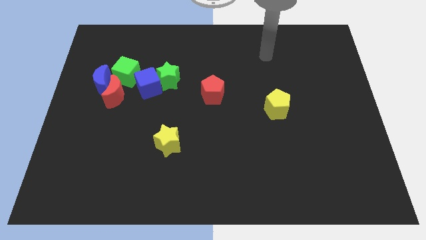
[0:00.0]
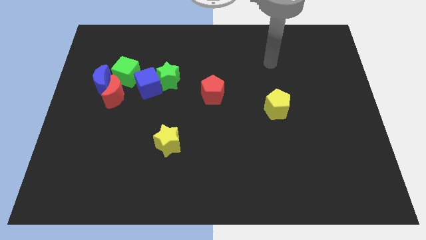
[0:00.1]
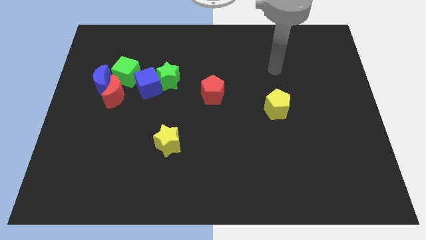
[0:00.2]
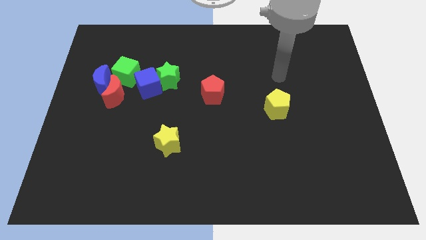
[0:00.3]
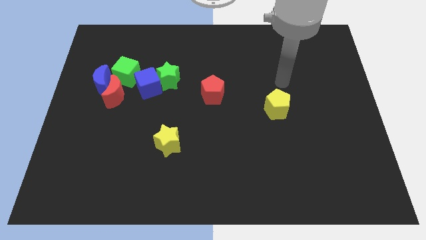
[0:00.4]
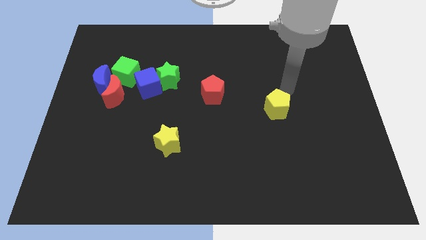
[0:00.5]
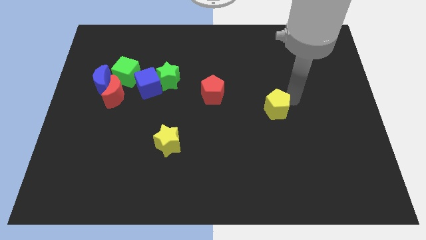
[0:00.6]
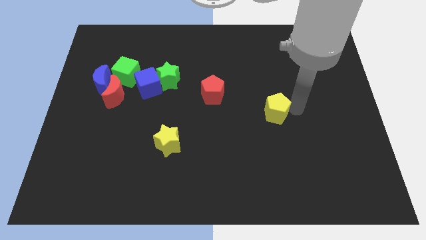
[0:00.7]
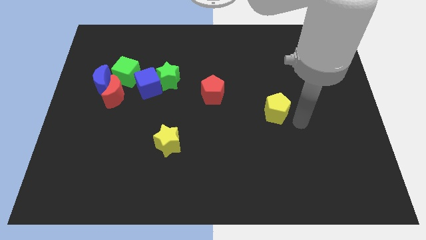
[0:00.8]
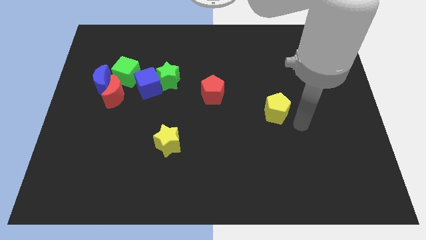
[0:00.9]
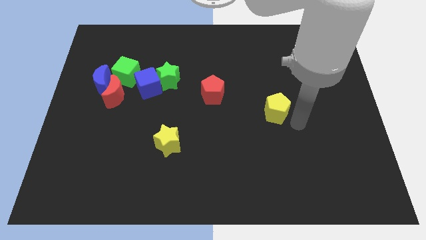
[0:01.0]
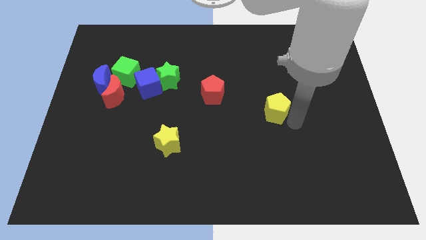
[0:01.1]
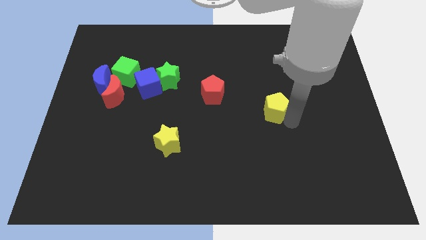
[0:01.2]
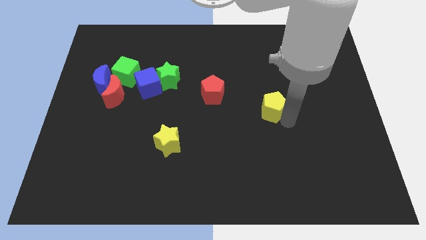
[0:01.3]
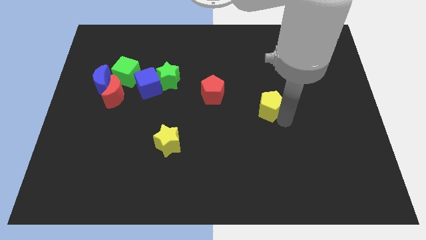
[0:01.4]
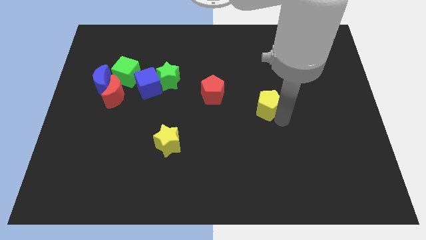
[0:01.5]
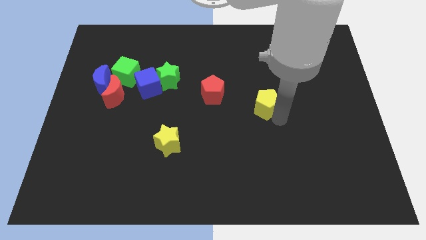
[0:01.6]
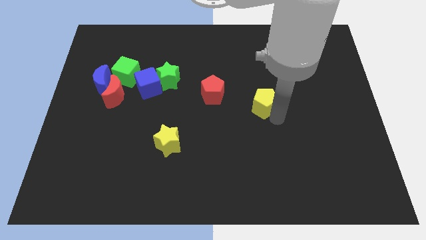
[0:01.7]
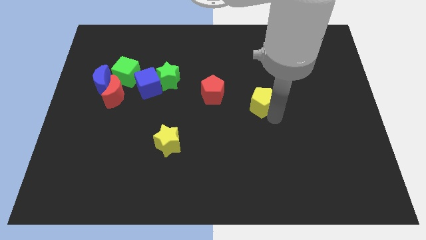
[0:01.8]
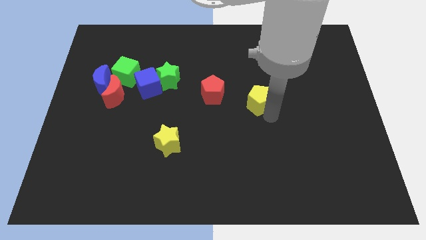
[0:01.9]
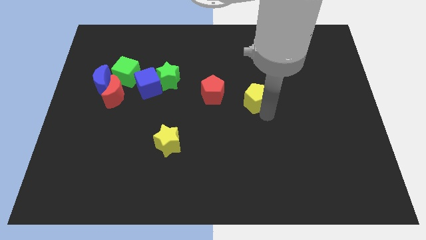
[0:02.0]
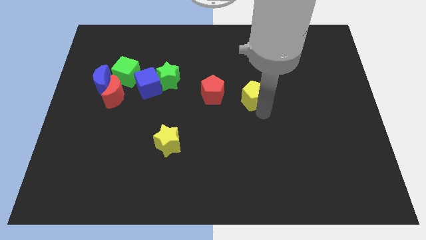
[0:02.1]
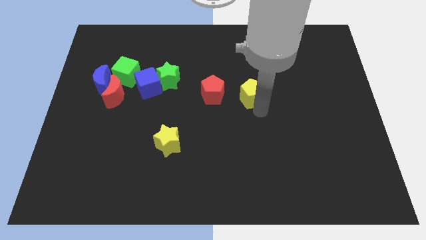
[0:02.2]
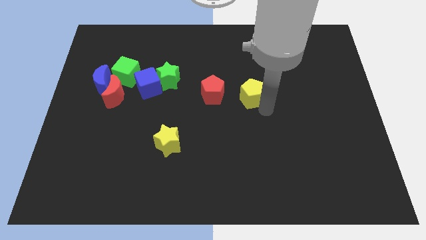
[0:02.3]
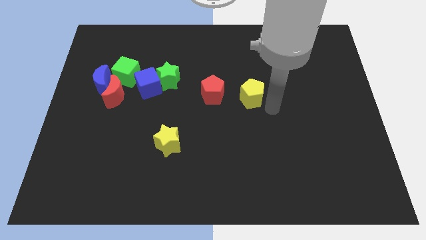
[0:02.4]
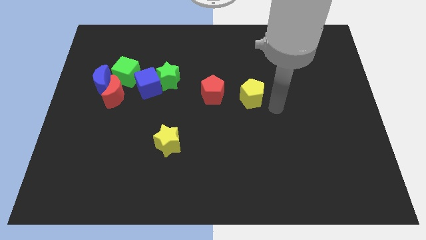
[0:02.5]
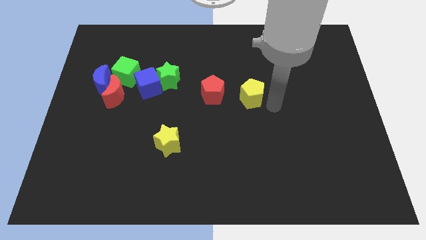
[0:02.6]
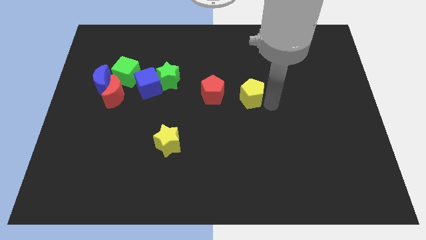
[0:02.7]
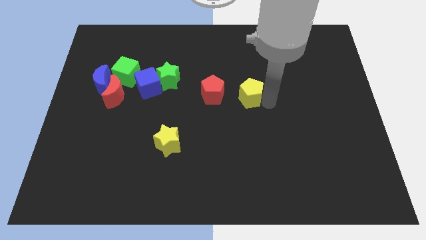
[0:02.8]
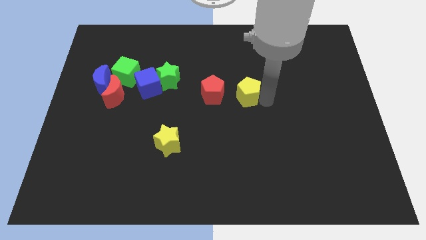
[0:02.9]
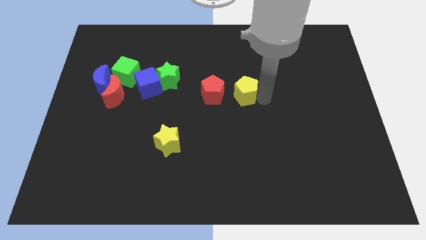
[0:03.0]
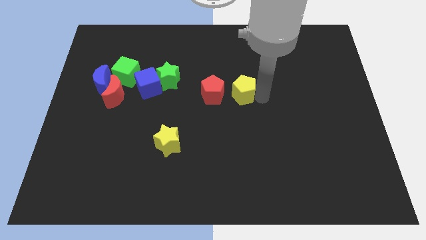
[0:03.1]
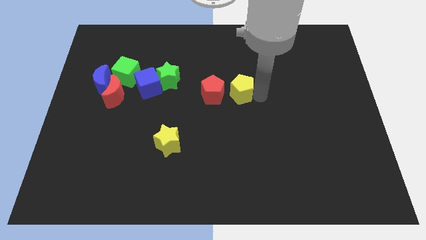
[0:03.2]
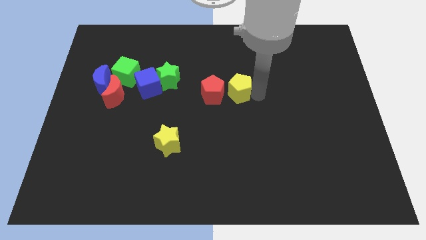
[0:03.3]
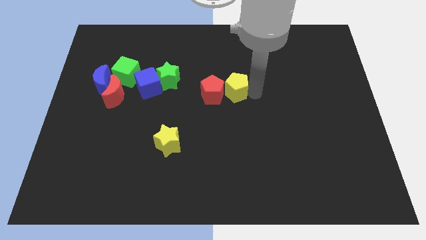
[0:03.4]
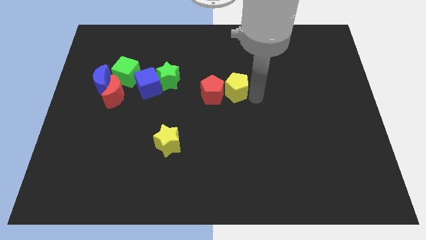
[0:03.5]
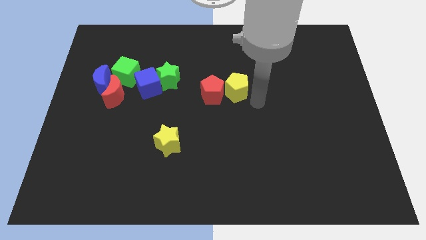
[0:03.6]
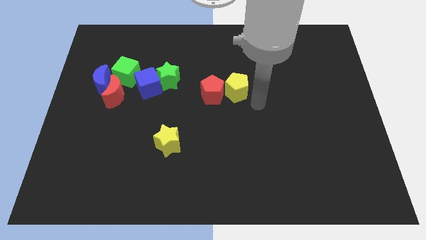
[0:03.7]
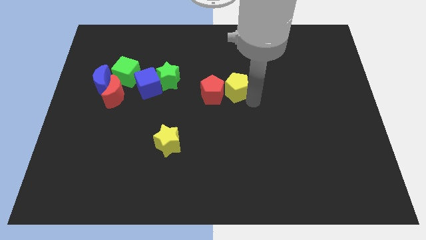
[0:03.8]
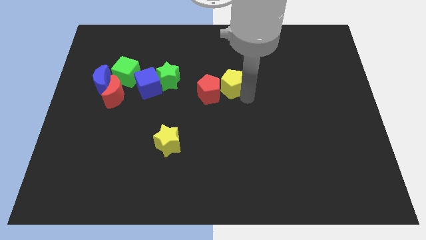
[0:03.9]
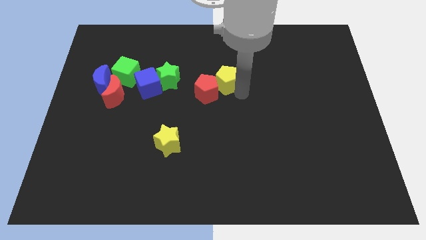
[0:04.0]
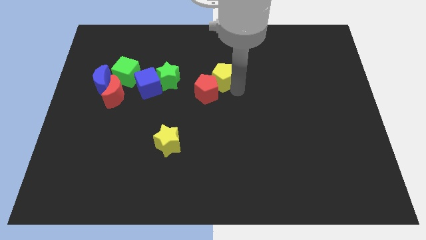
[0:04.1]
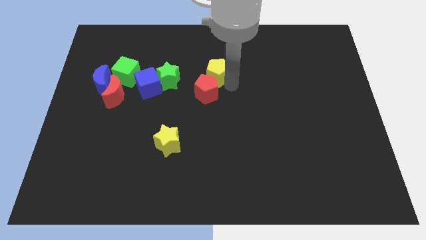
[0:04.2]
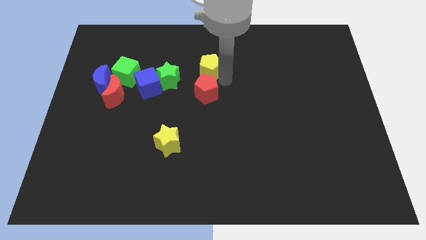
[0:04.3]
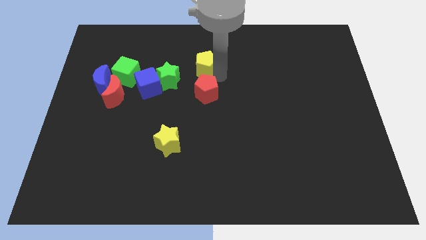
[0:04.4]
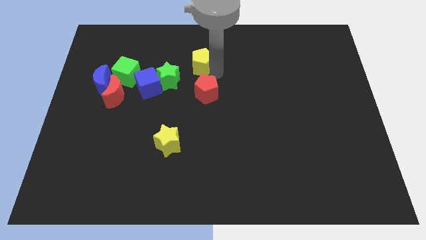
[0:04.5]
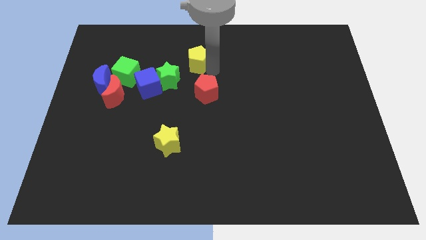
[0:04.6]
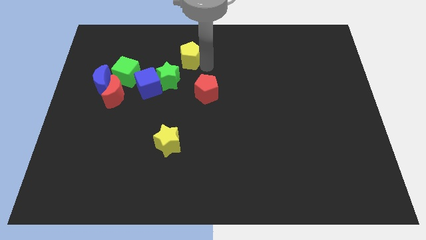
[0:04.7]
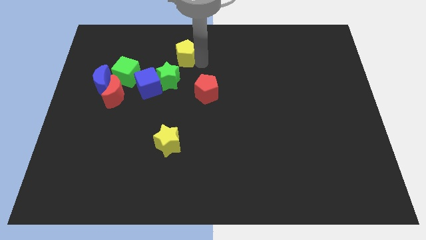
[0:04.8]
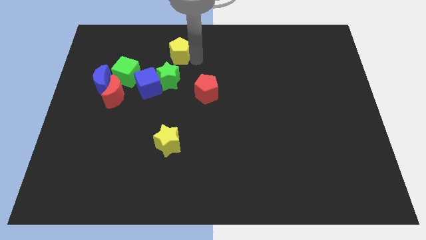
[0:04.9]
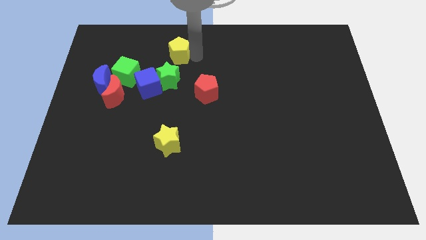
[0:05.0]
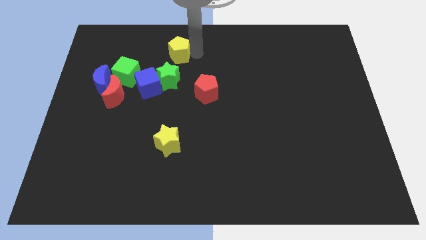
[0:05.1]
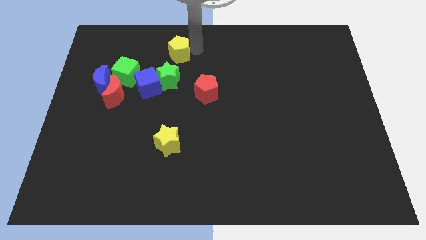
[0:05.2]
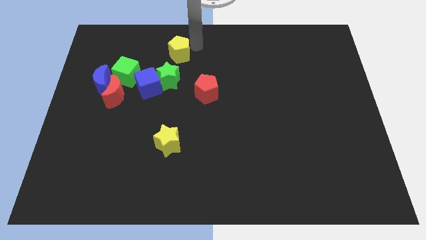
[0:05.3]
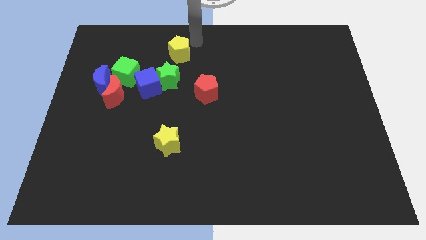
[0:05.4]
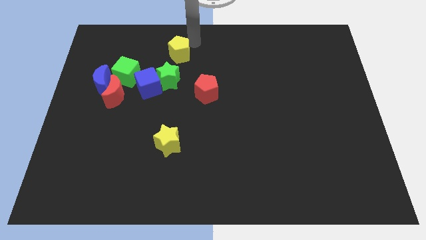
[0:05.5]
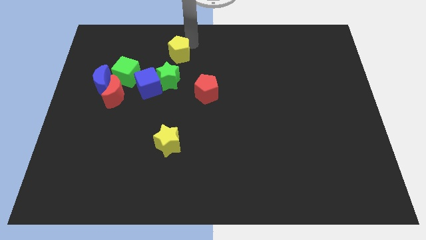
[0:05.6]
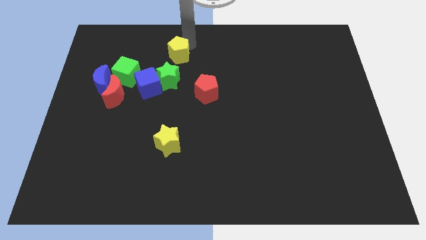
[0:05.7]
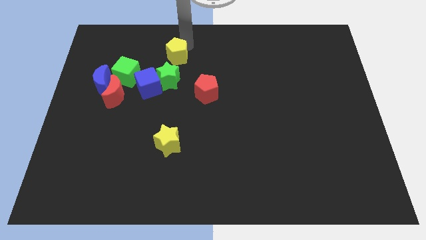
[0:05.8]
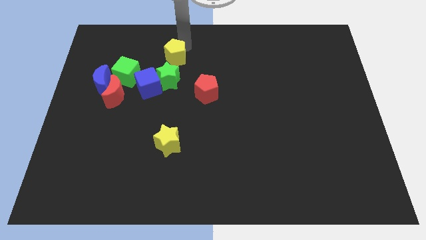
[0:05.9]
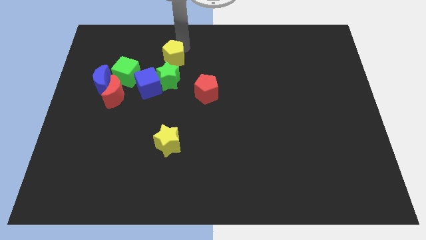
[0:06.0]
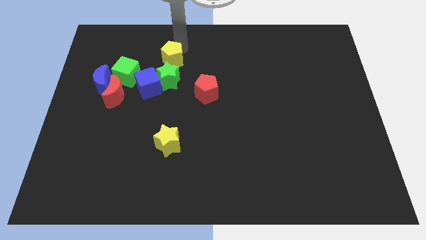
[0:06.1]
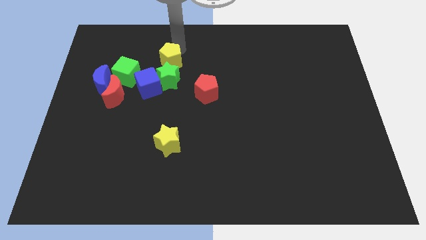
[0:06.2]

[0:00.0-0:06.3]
move the yellow pentagon to the top left side of the green star

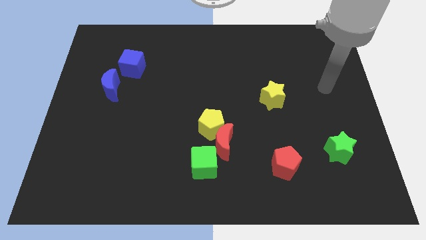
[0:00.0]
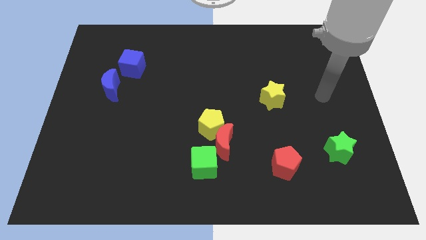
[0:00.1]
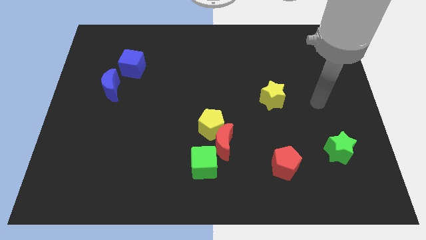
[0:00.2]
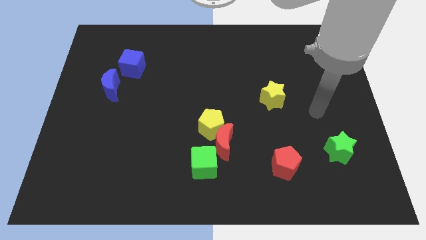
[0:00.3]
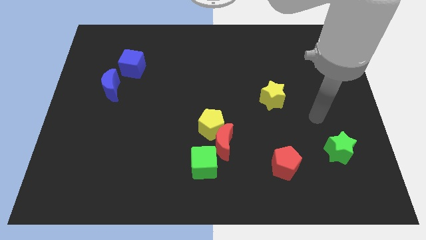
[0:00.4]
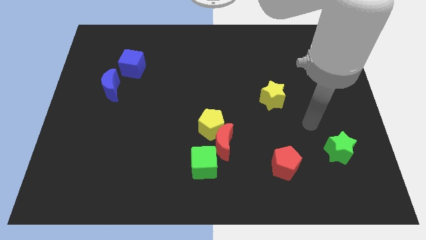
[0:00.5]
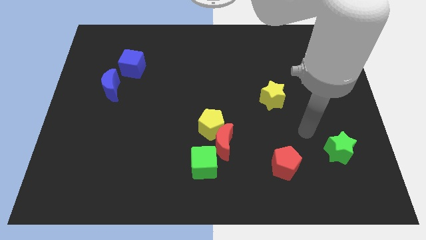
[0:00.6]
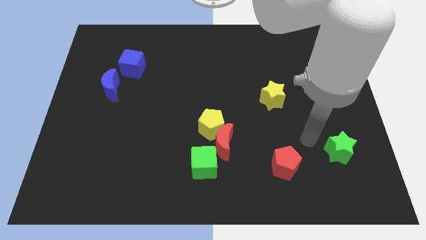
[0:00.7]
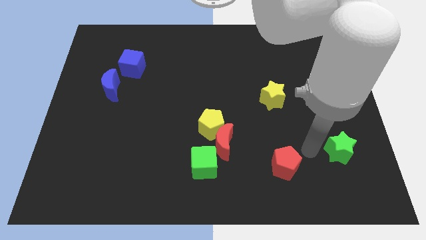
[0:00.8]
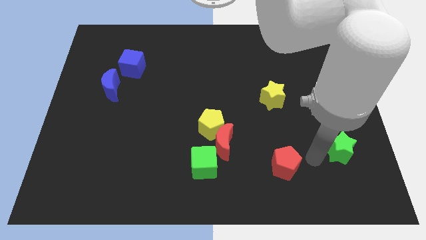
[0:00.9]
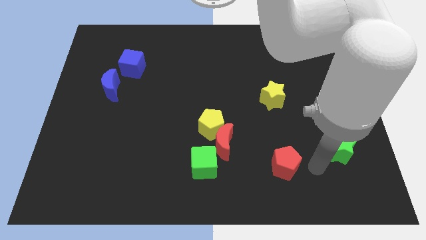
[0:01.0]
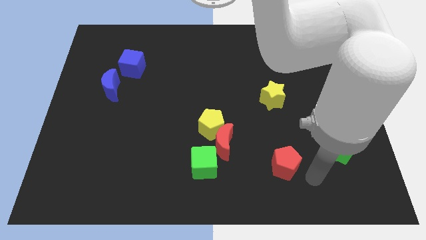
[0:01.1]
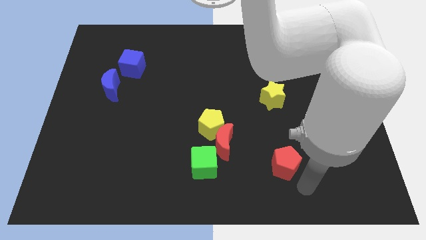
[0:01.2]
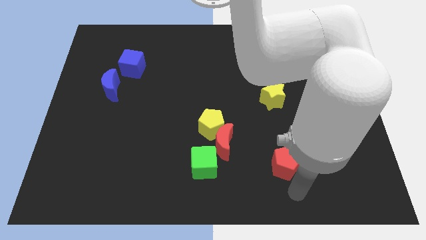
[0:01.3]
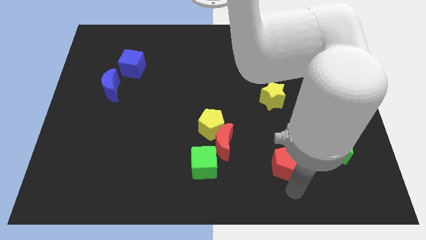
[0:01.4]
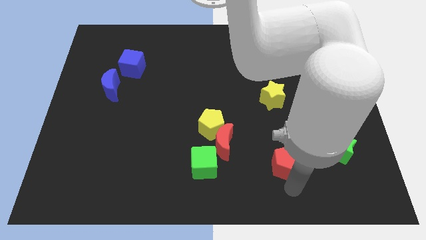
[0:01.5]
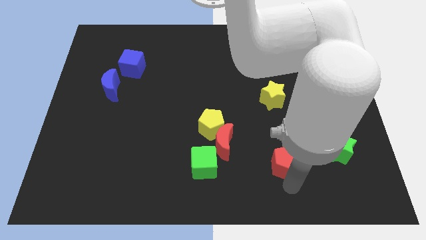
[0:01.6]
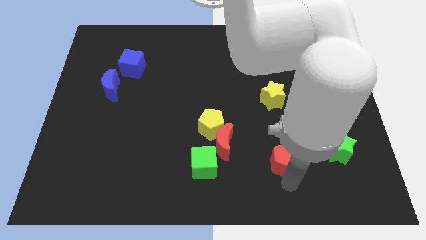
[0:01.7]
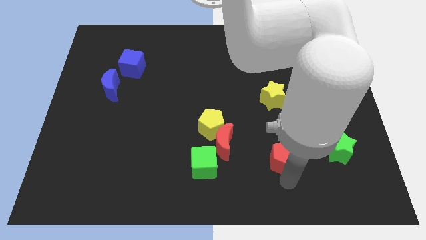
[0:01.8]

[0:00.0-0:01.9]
push the red pentagon to the bottom of the yellow star
